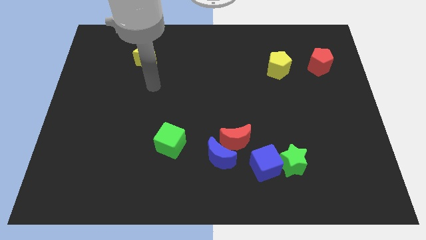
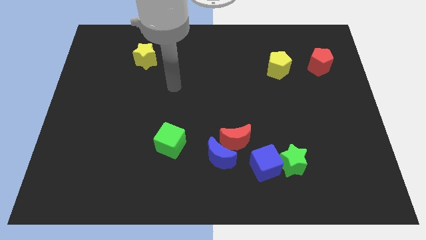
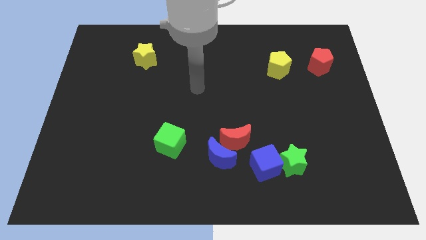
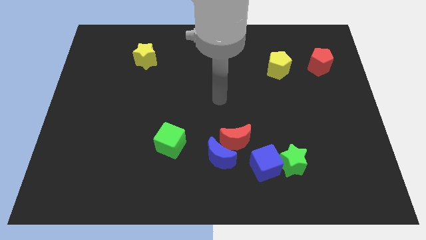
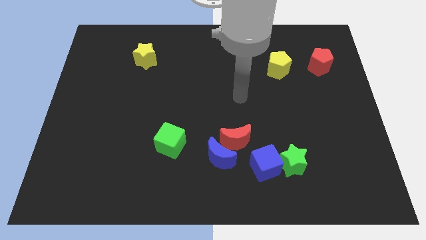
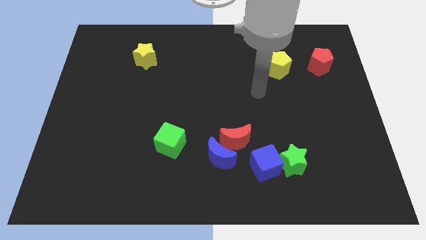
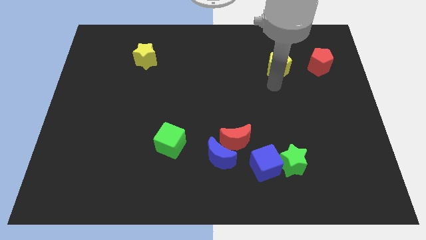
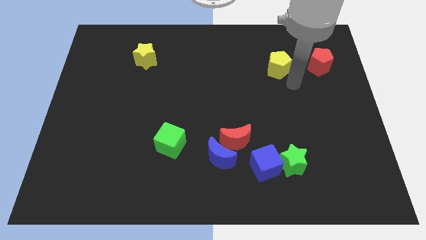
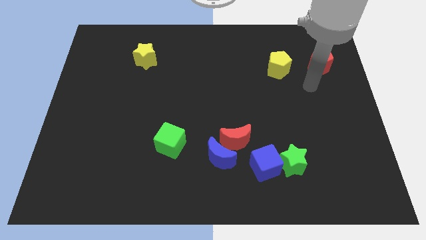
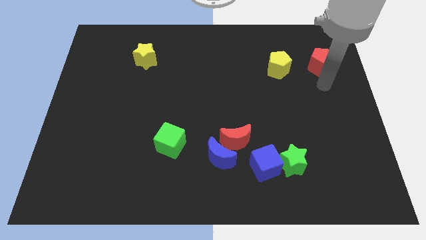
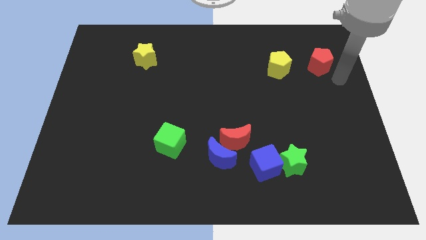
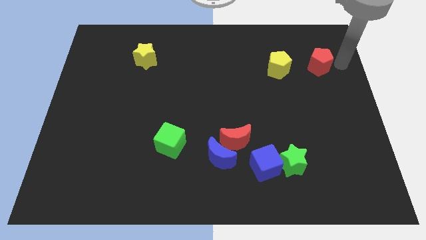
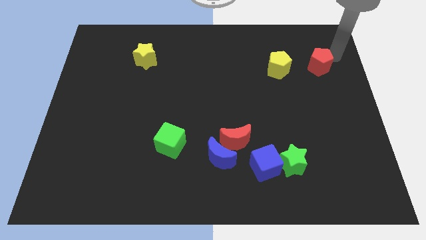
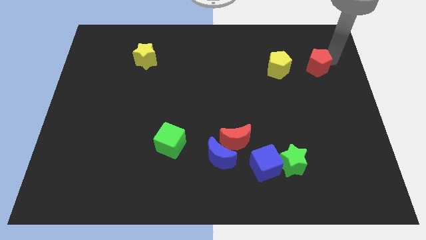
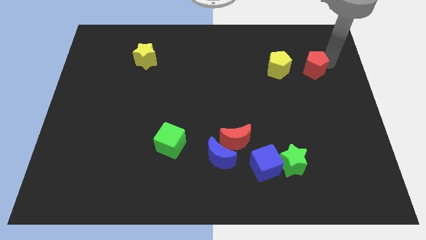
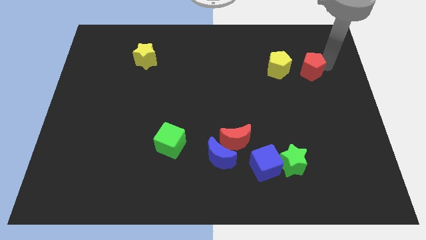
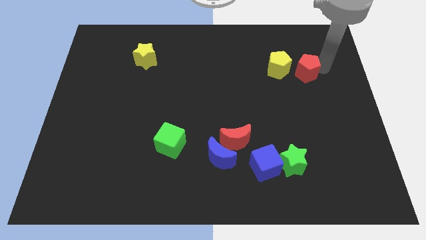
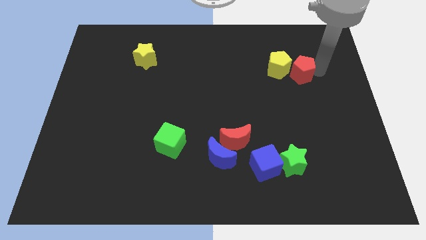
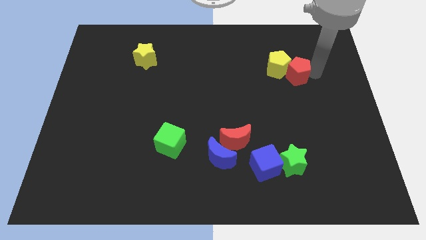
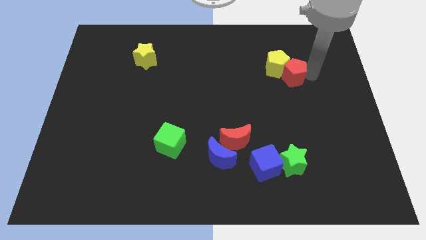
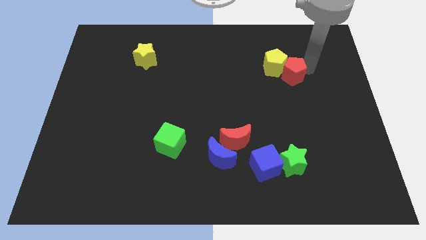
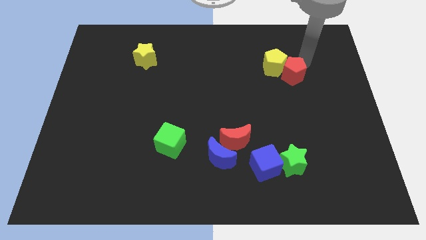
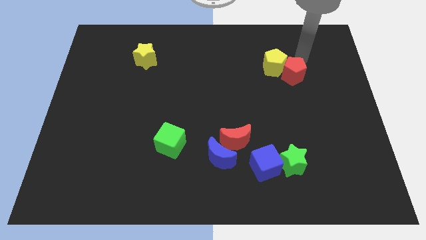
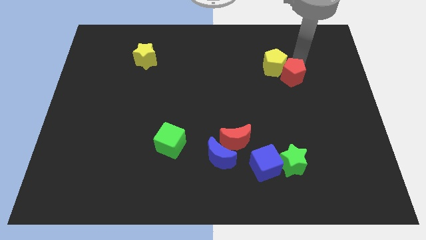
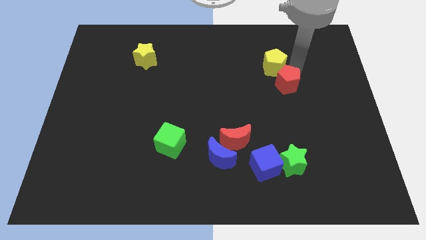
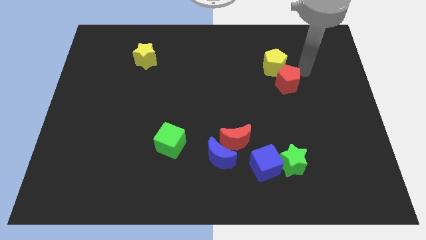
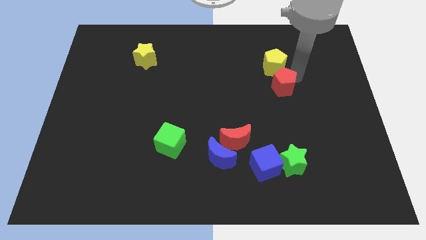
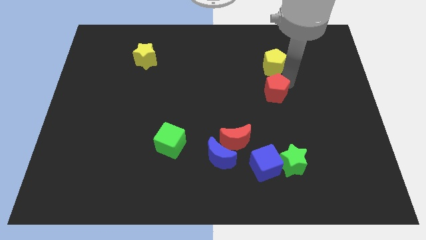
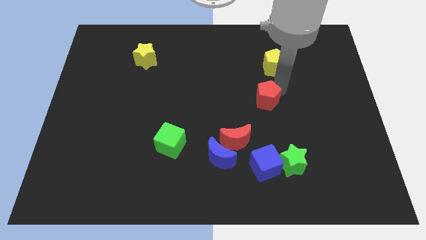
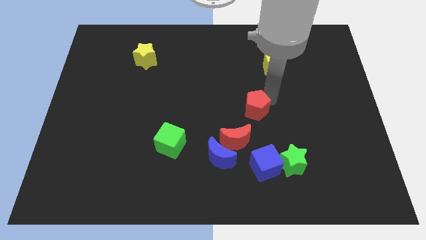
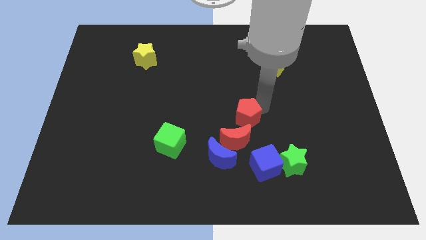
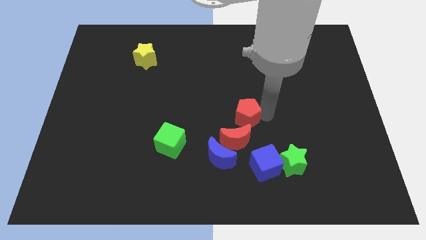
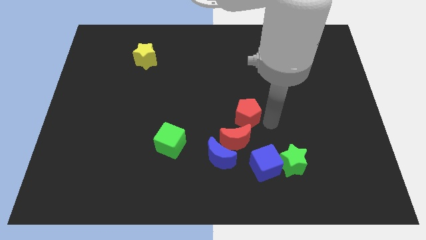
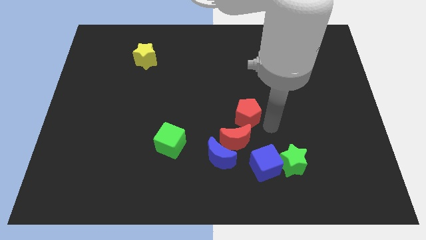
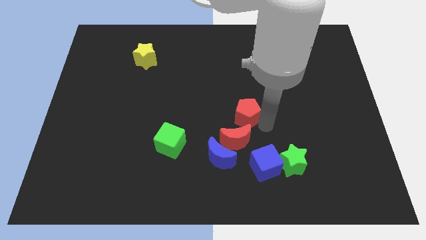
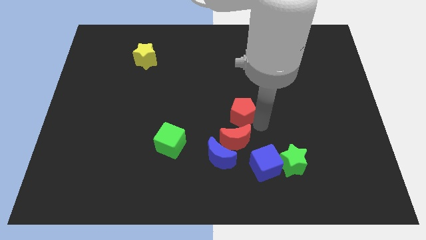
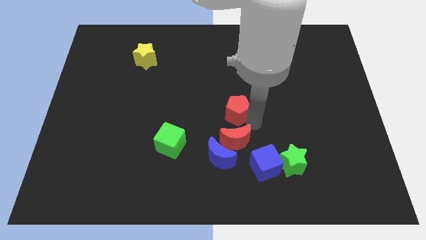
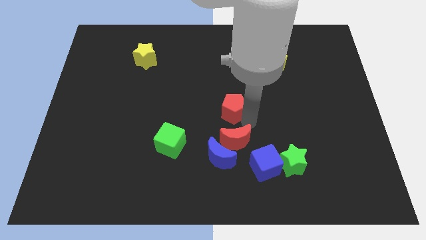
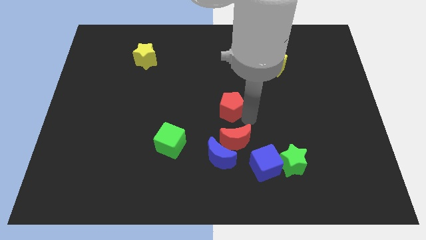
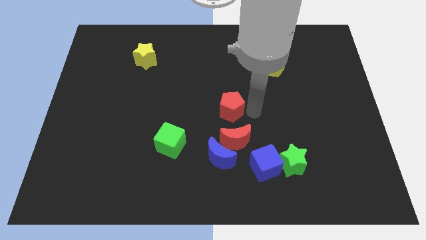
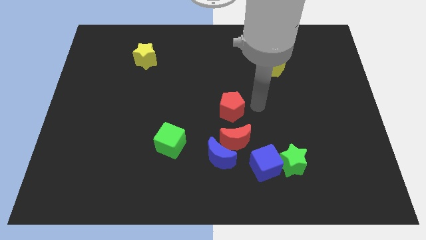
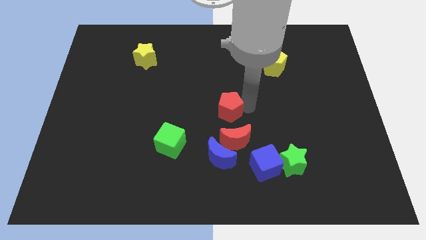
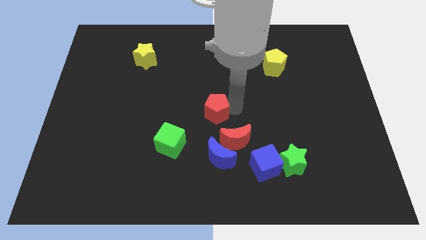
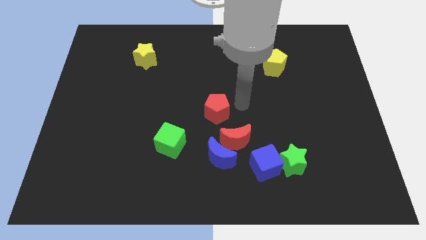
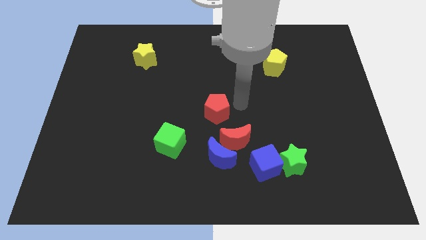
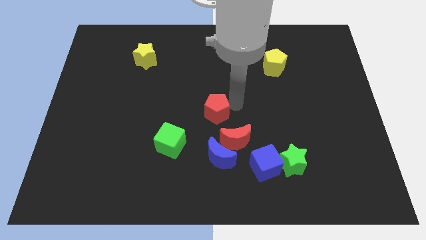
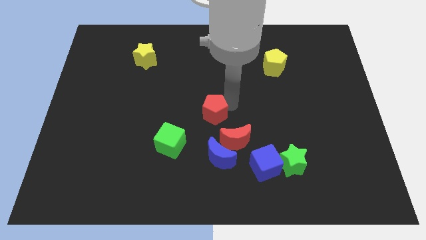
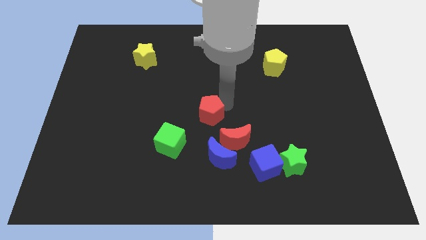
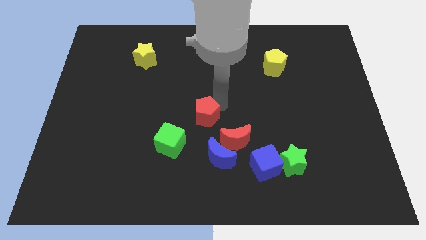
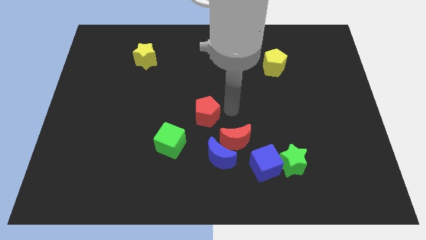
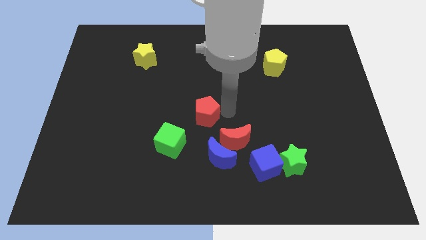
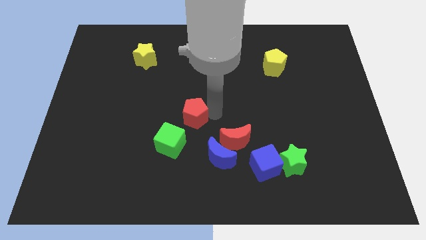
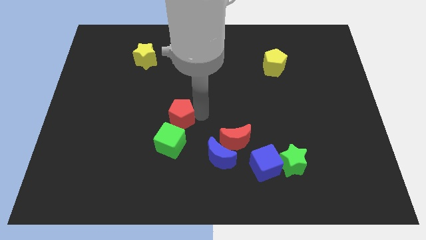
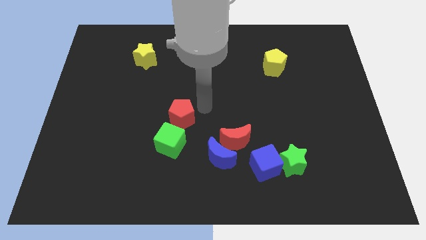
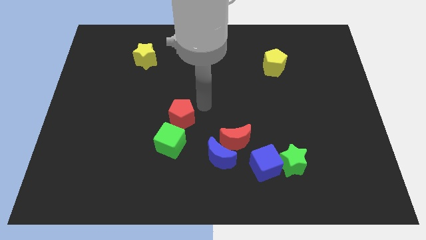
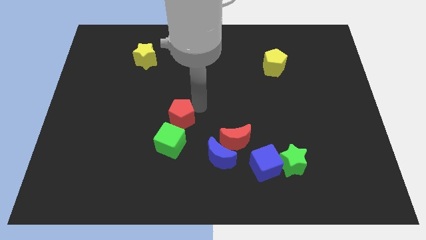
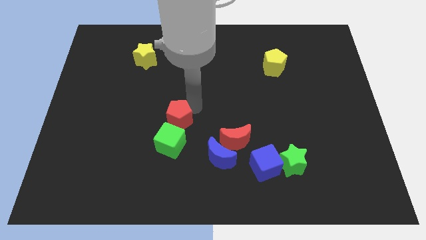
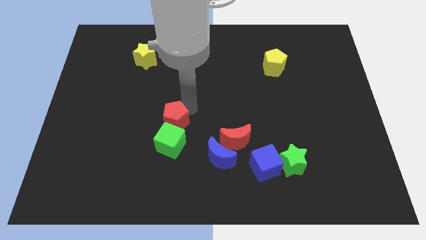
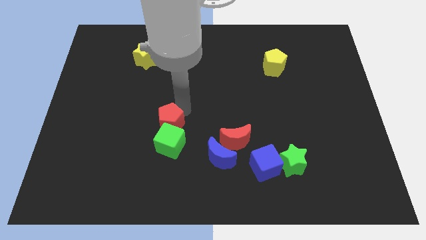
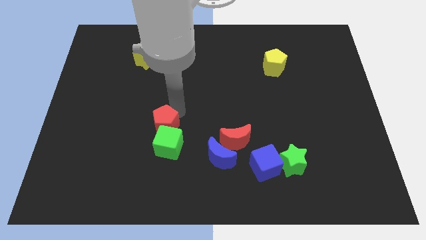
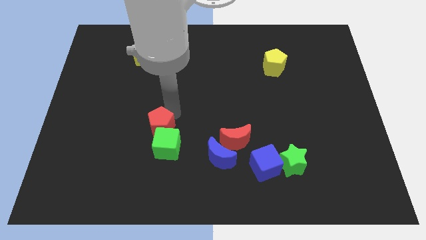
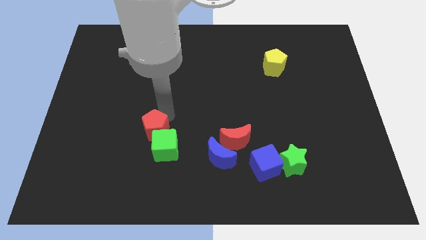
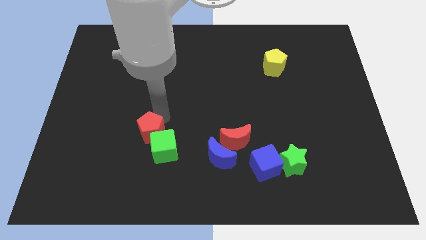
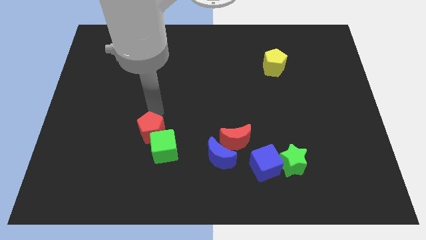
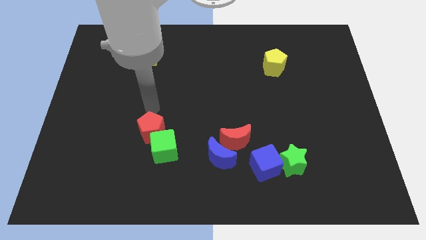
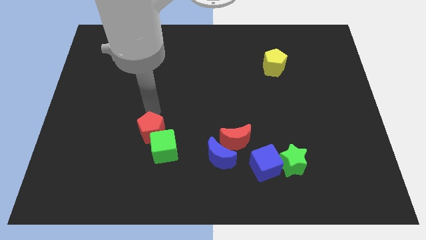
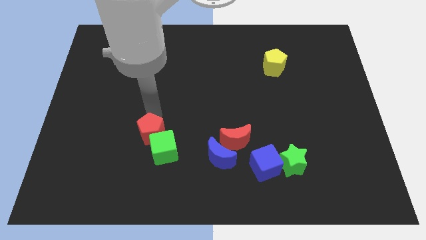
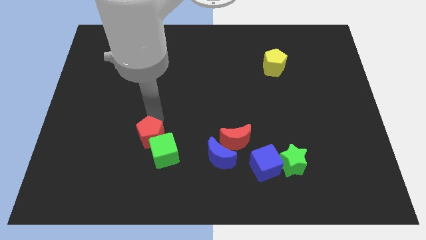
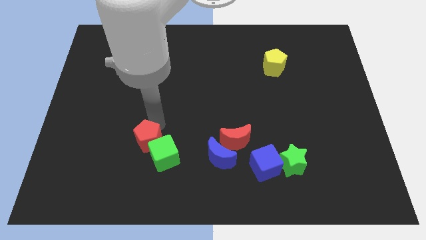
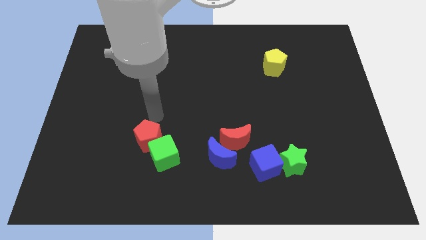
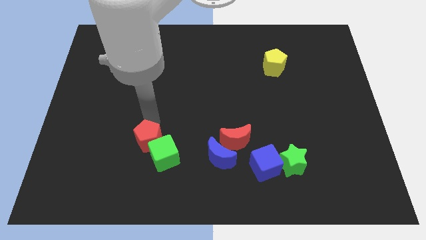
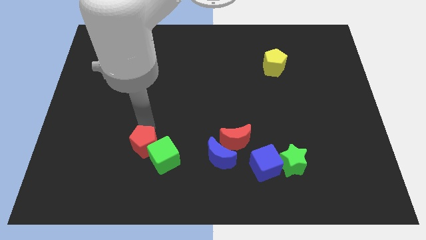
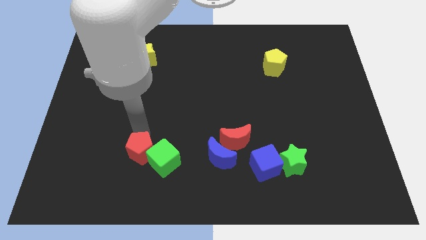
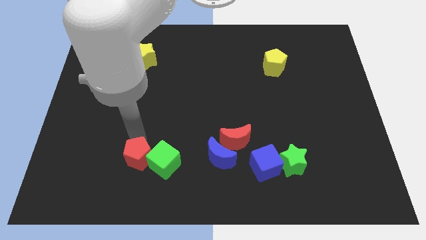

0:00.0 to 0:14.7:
push the red pentagon diagonally down and to the left of the green cube
